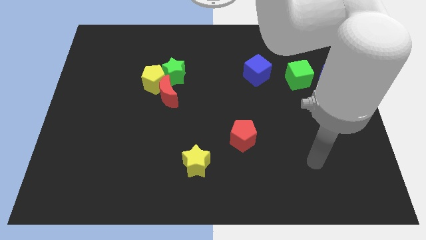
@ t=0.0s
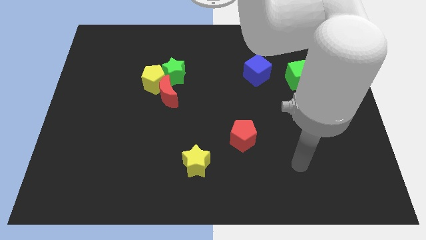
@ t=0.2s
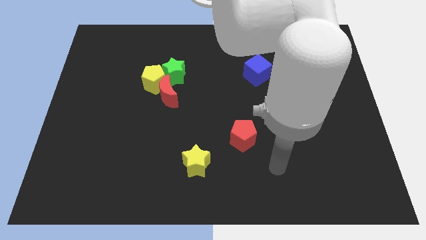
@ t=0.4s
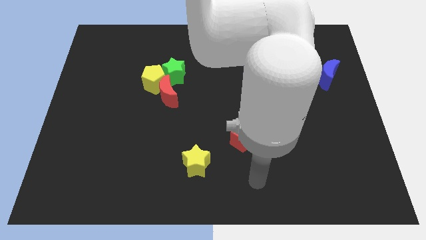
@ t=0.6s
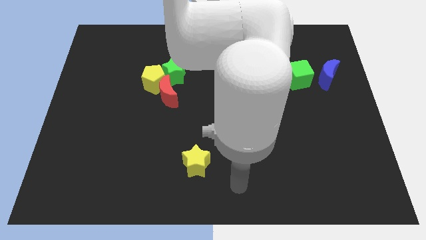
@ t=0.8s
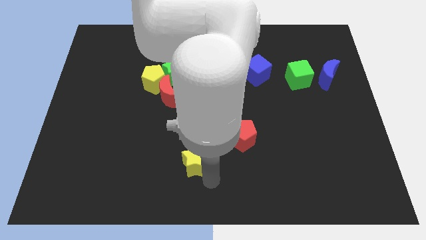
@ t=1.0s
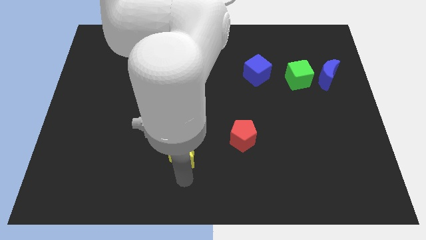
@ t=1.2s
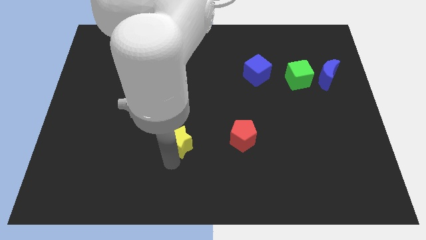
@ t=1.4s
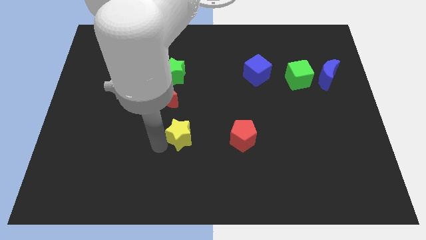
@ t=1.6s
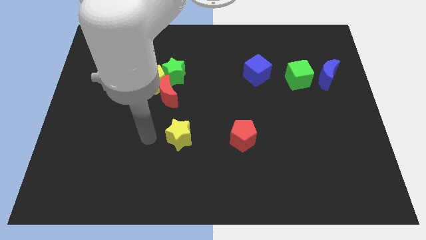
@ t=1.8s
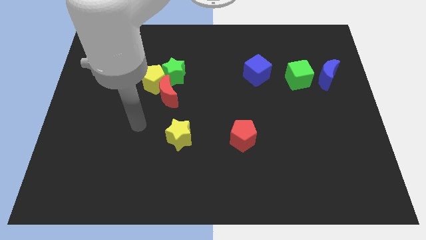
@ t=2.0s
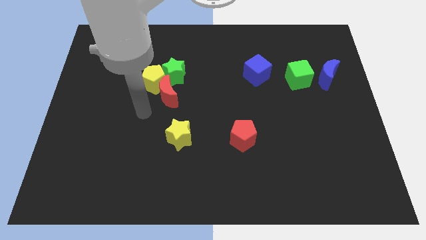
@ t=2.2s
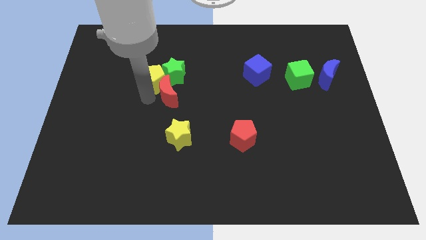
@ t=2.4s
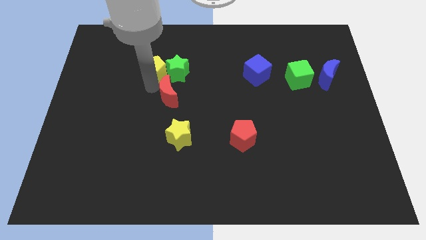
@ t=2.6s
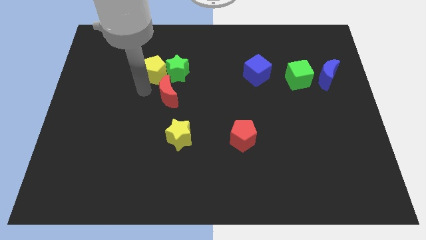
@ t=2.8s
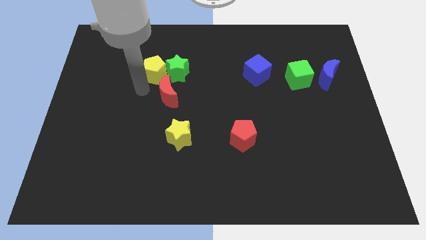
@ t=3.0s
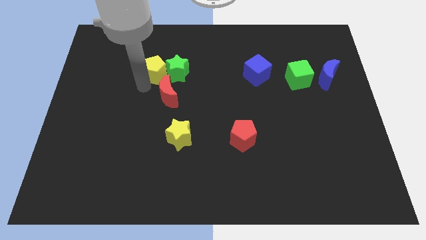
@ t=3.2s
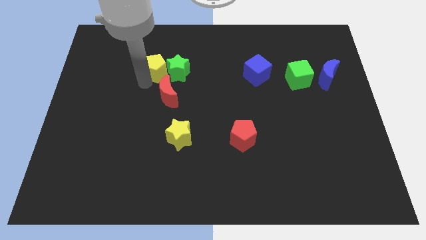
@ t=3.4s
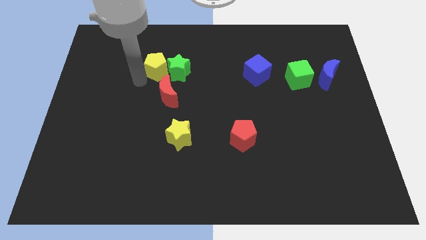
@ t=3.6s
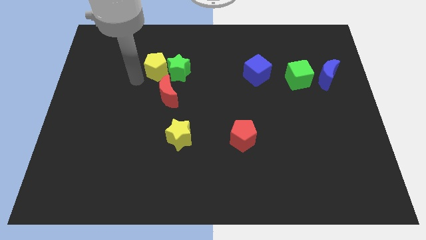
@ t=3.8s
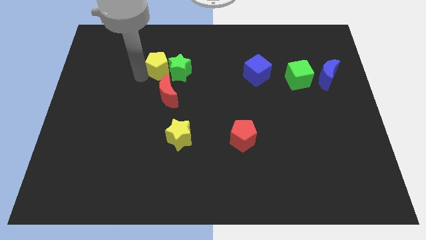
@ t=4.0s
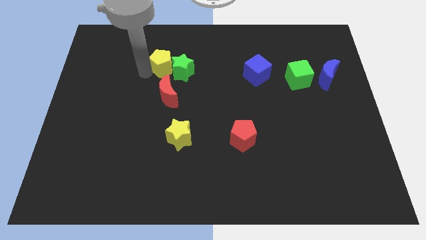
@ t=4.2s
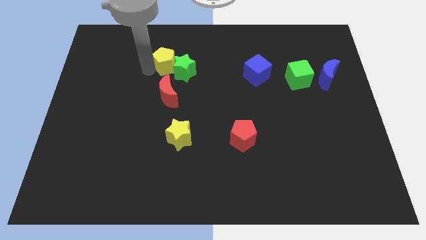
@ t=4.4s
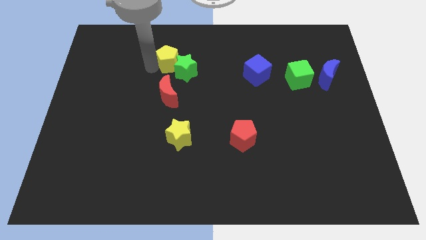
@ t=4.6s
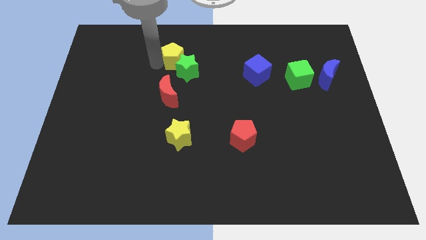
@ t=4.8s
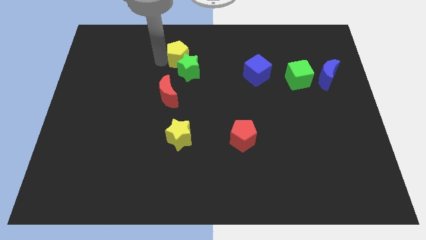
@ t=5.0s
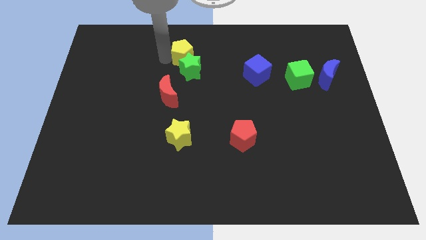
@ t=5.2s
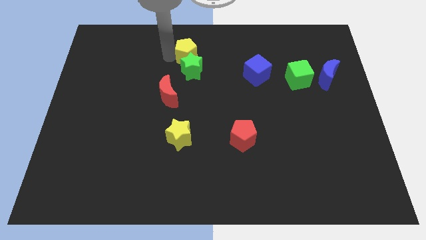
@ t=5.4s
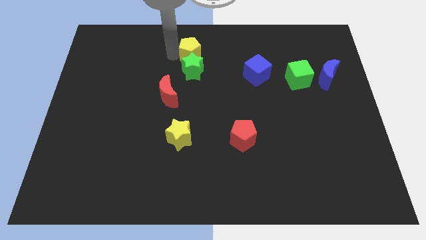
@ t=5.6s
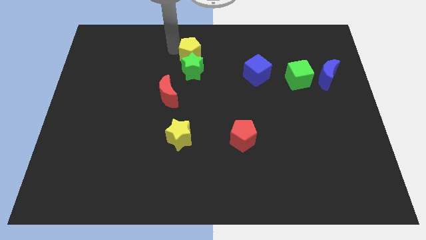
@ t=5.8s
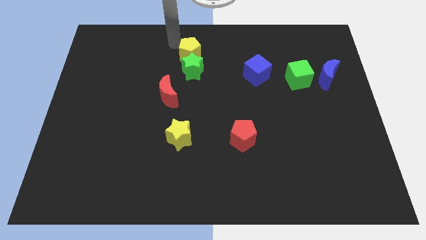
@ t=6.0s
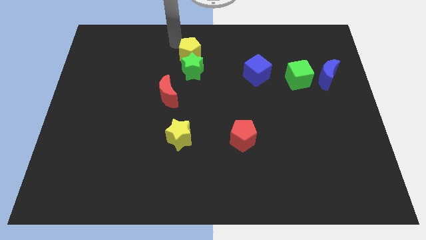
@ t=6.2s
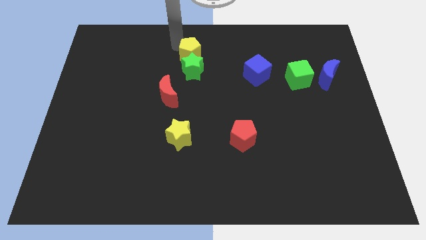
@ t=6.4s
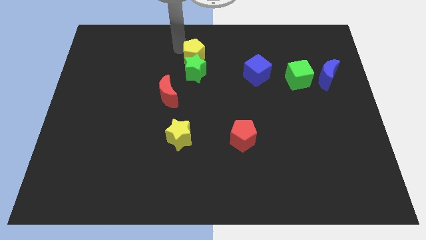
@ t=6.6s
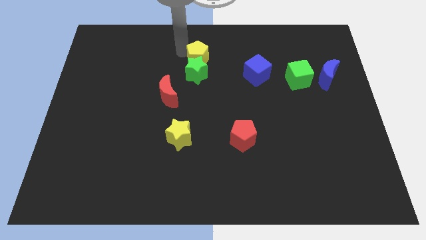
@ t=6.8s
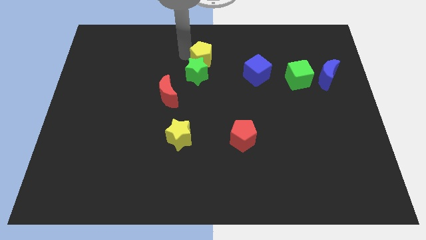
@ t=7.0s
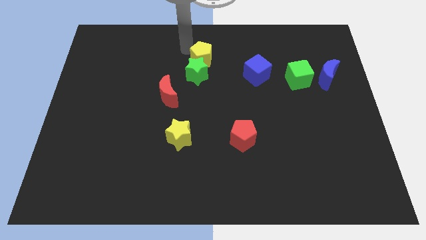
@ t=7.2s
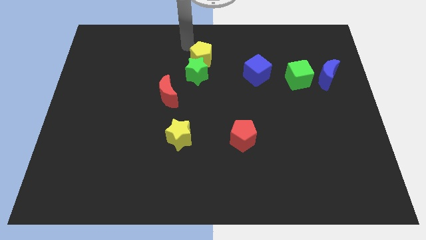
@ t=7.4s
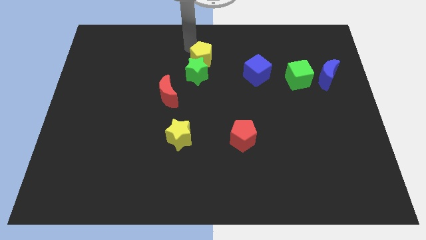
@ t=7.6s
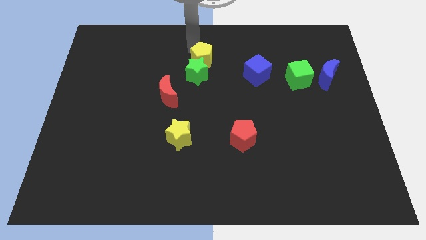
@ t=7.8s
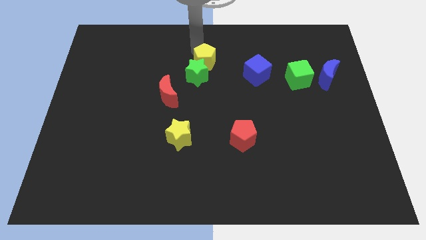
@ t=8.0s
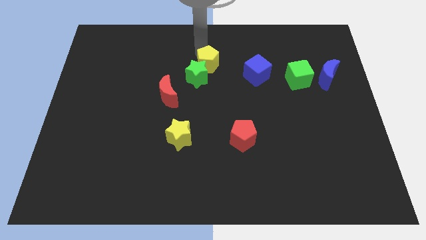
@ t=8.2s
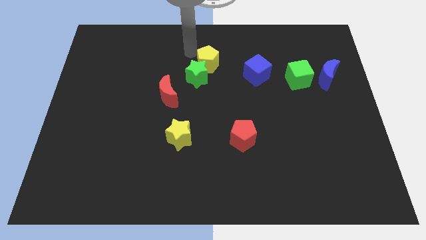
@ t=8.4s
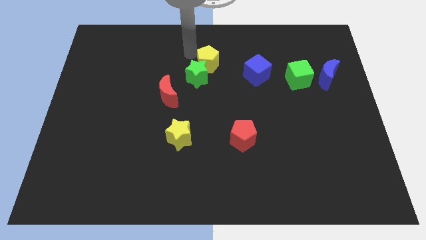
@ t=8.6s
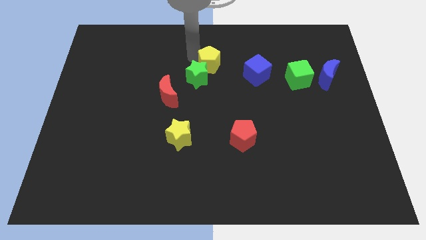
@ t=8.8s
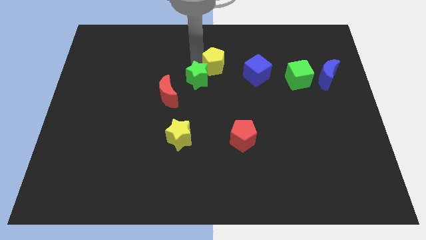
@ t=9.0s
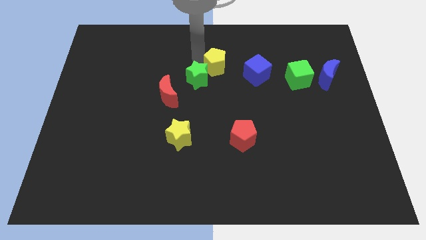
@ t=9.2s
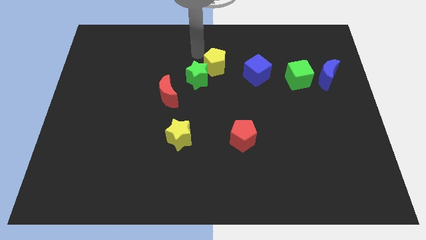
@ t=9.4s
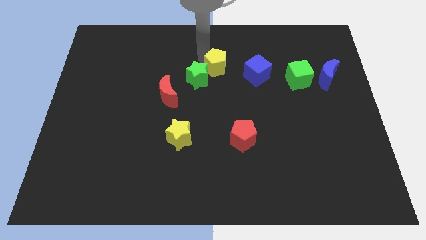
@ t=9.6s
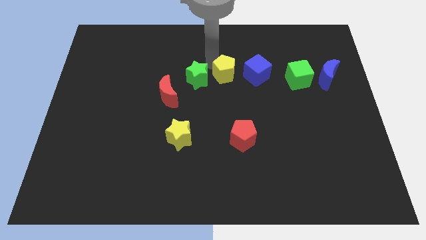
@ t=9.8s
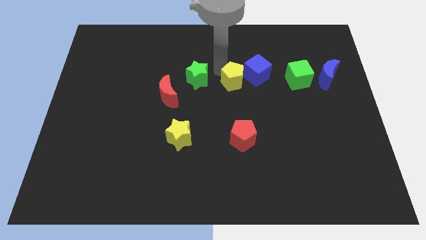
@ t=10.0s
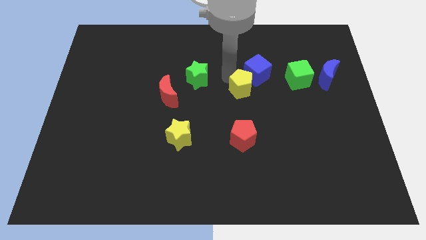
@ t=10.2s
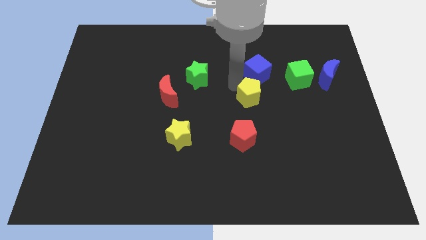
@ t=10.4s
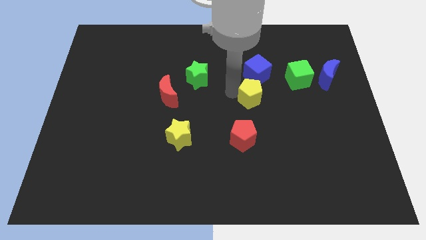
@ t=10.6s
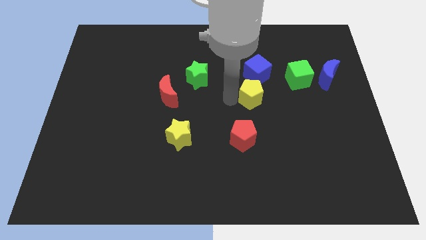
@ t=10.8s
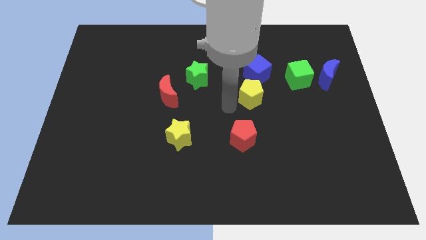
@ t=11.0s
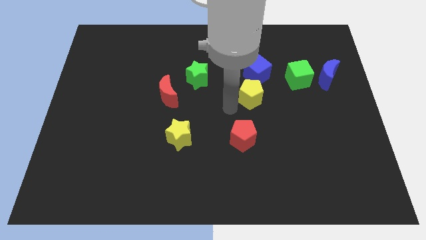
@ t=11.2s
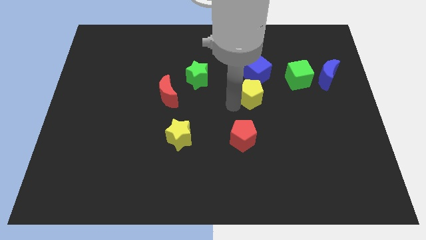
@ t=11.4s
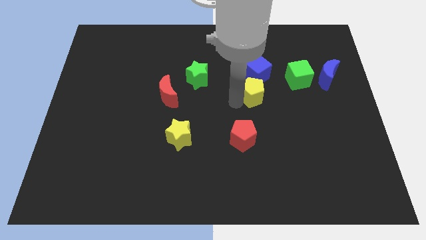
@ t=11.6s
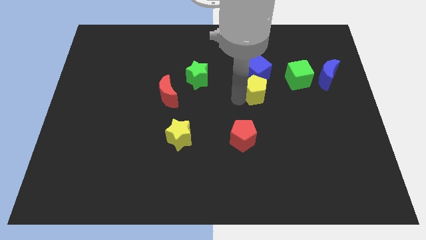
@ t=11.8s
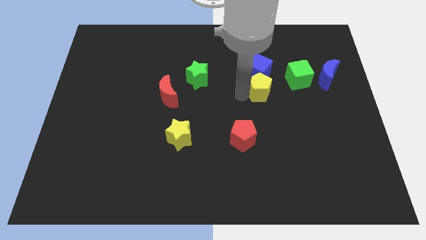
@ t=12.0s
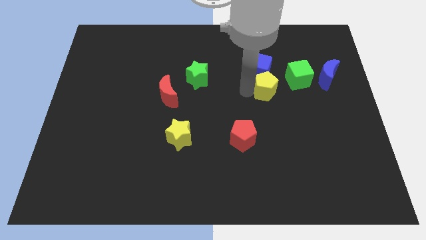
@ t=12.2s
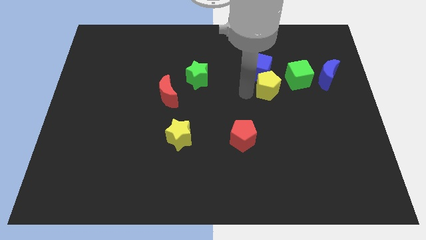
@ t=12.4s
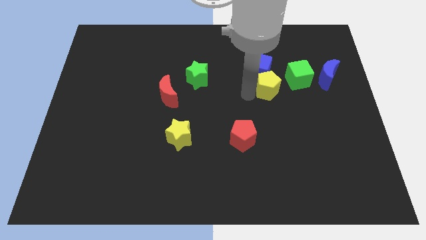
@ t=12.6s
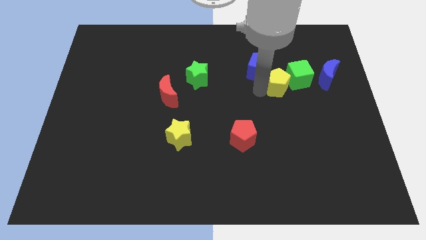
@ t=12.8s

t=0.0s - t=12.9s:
put the yellow pentagon towards the green cube

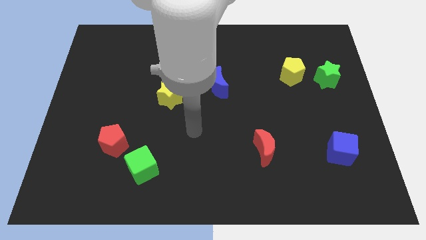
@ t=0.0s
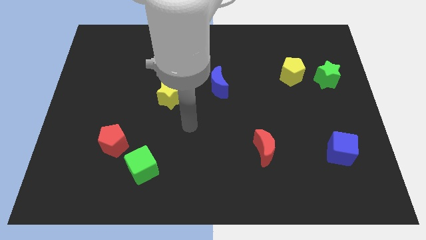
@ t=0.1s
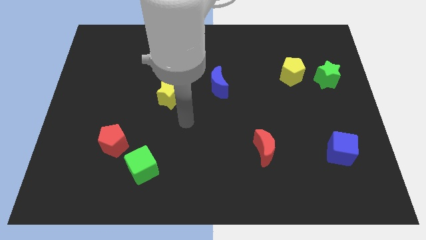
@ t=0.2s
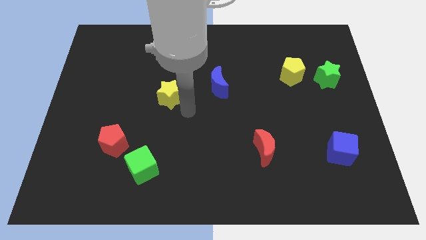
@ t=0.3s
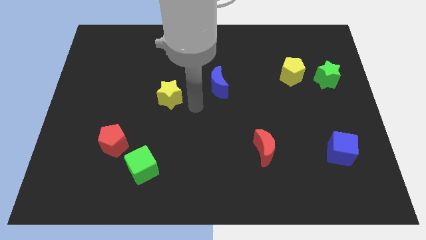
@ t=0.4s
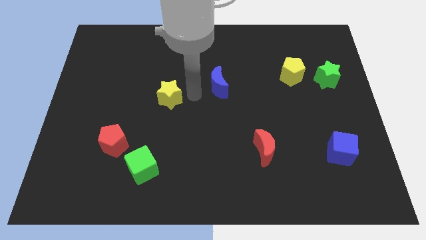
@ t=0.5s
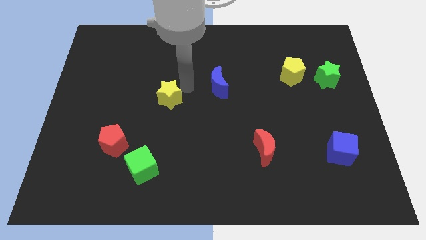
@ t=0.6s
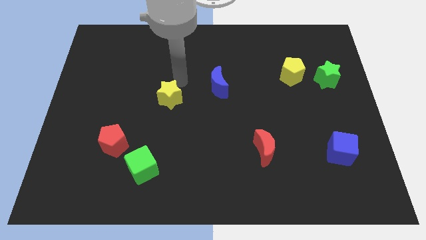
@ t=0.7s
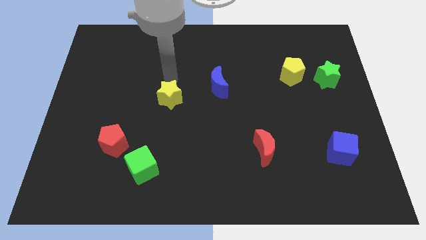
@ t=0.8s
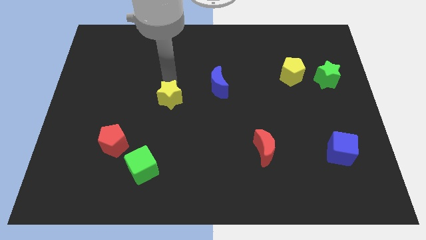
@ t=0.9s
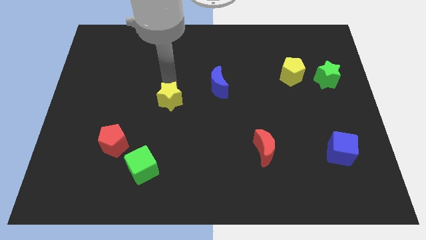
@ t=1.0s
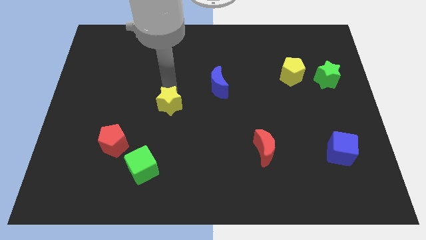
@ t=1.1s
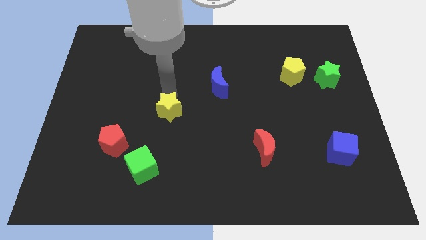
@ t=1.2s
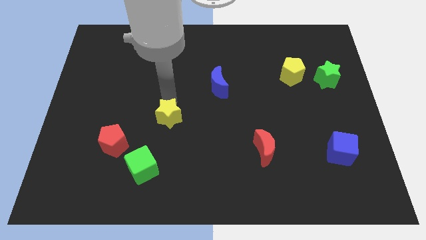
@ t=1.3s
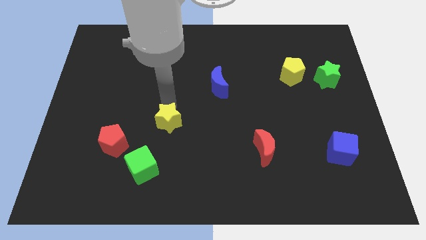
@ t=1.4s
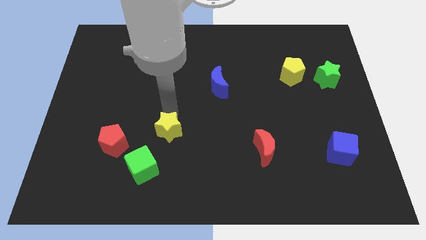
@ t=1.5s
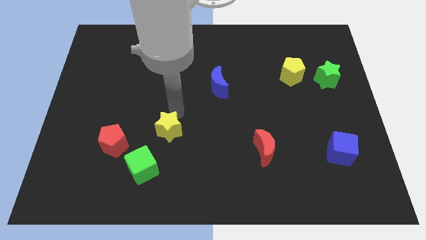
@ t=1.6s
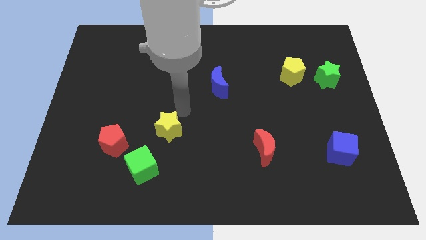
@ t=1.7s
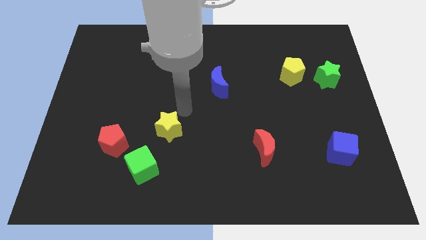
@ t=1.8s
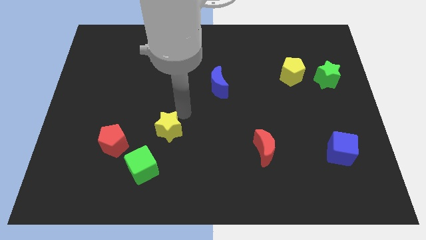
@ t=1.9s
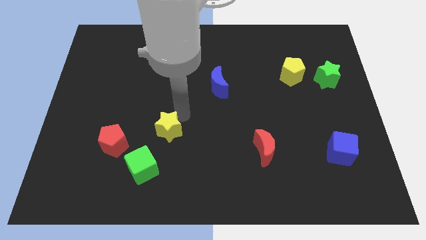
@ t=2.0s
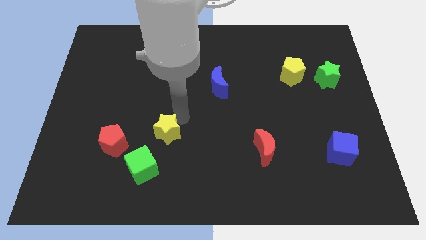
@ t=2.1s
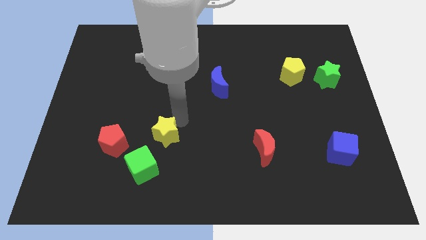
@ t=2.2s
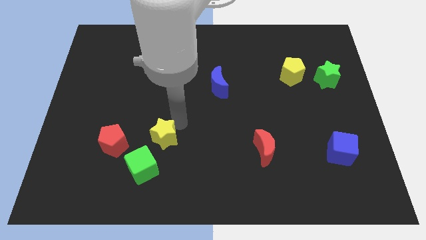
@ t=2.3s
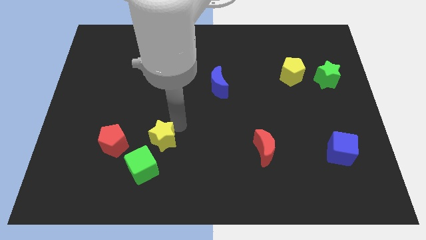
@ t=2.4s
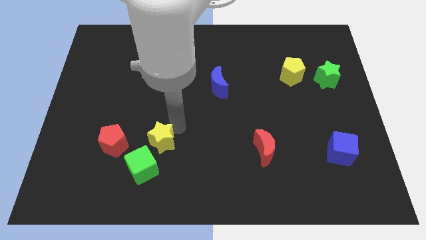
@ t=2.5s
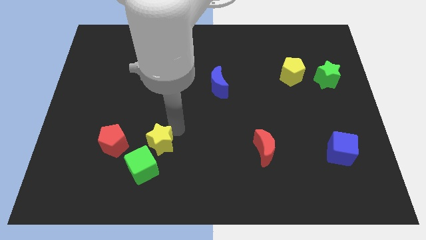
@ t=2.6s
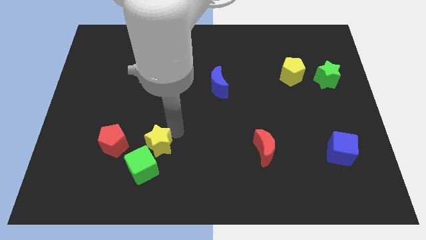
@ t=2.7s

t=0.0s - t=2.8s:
push the yellow star to the green cube
